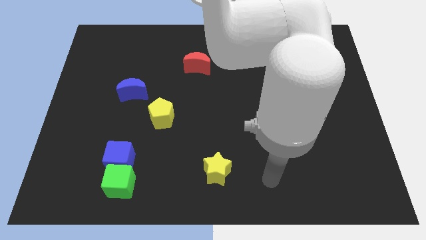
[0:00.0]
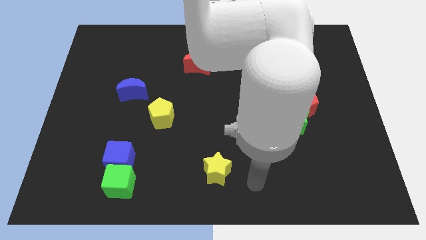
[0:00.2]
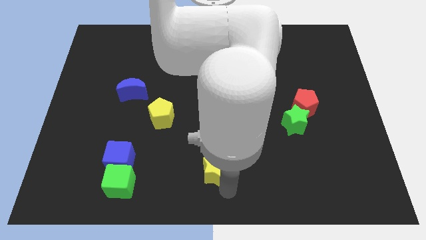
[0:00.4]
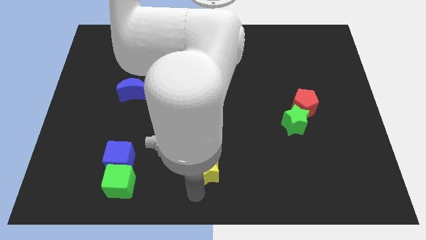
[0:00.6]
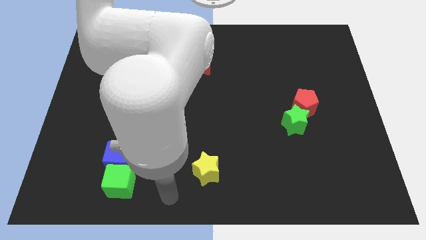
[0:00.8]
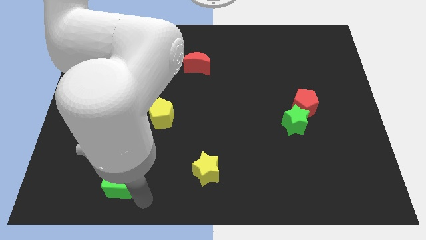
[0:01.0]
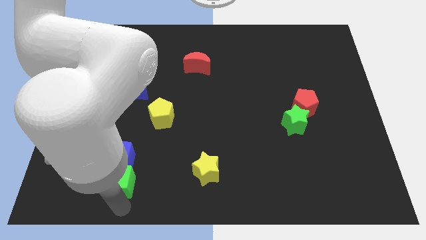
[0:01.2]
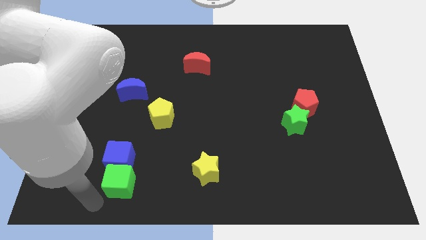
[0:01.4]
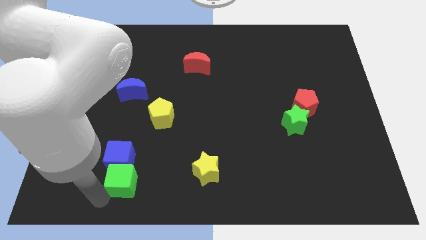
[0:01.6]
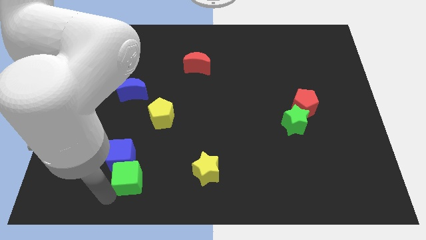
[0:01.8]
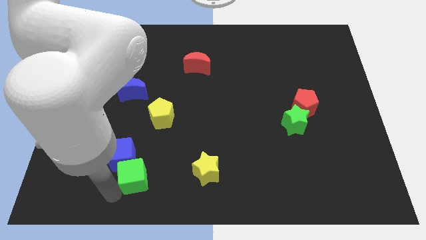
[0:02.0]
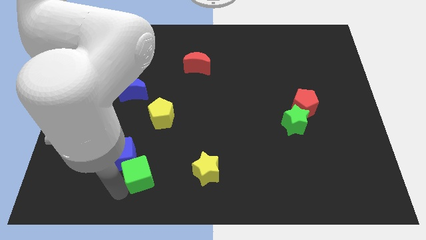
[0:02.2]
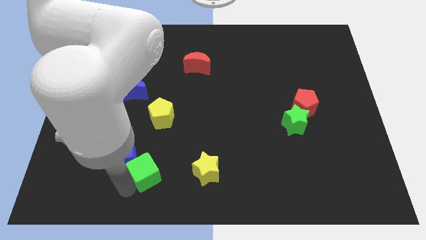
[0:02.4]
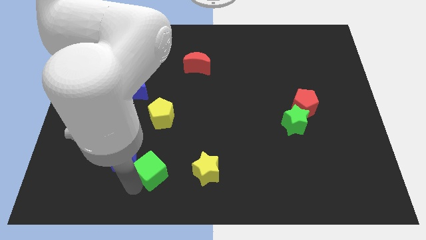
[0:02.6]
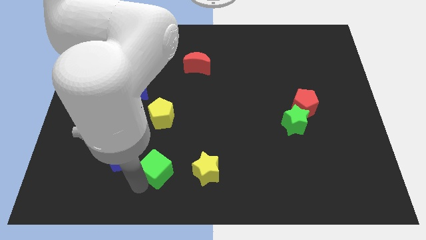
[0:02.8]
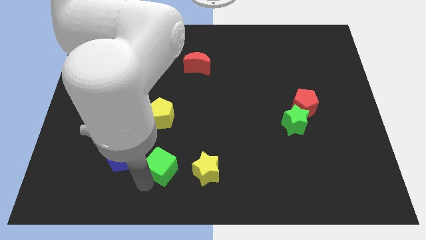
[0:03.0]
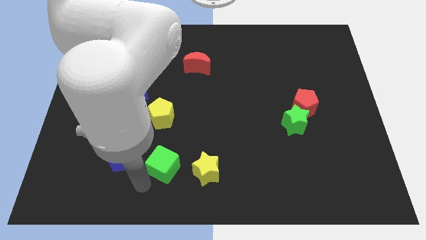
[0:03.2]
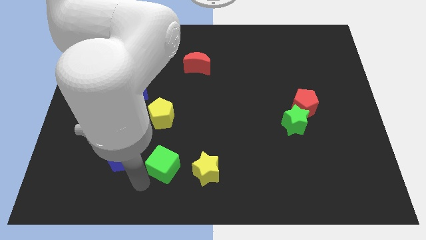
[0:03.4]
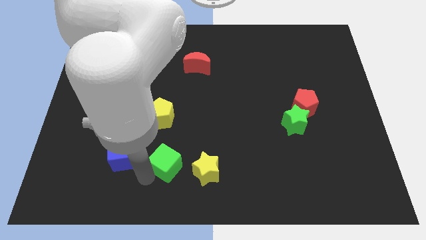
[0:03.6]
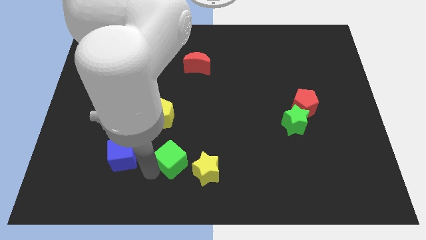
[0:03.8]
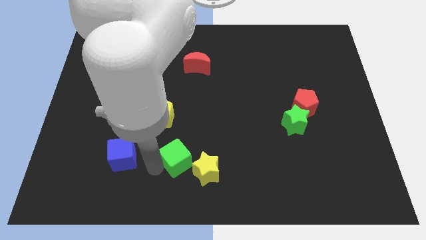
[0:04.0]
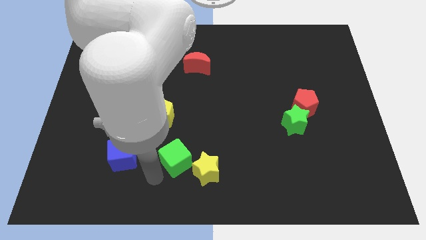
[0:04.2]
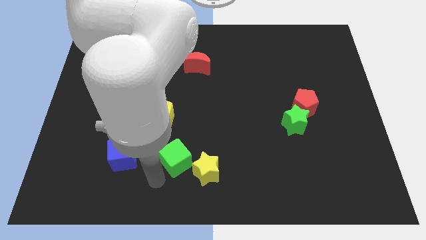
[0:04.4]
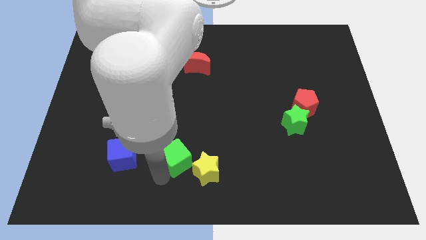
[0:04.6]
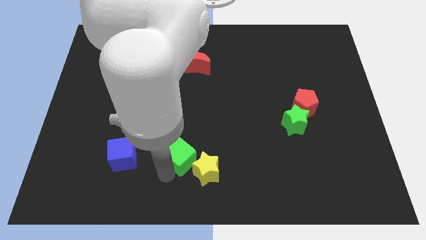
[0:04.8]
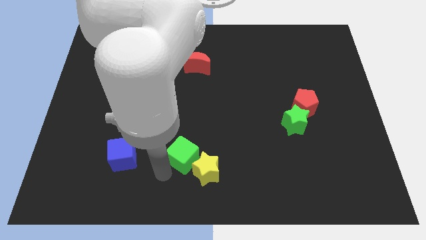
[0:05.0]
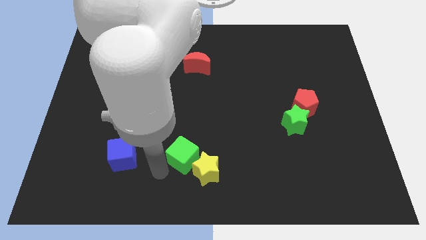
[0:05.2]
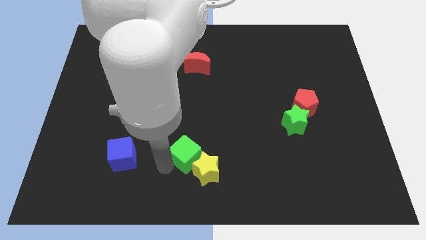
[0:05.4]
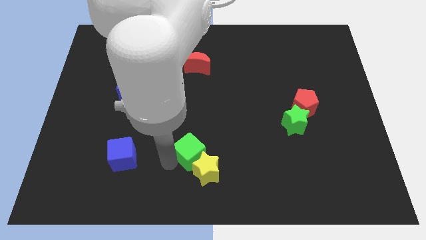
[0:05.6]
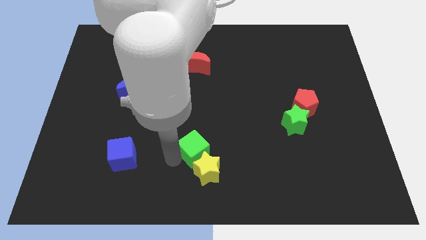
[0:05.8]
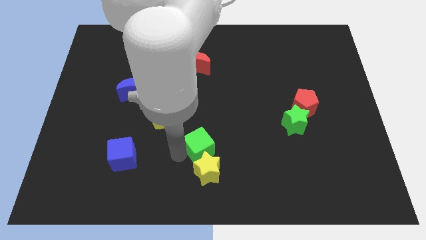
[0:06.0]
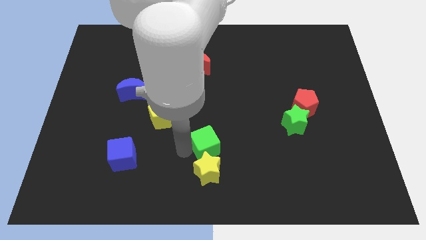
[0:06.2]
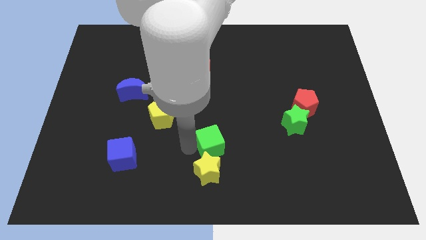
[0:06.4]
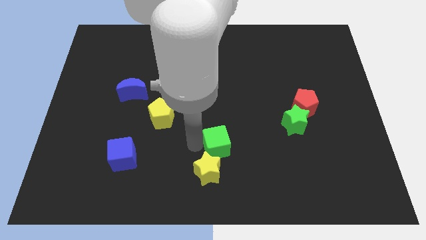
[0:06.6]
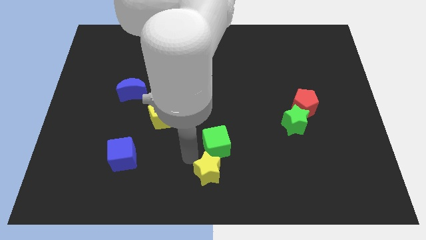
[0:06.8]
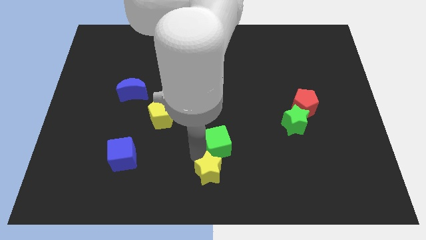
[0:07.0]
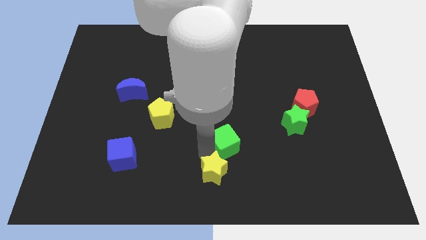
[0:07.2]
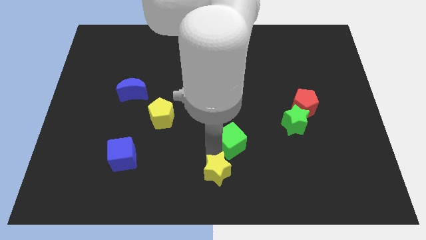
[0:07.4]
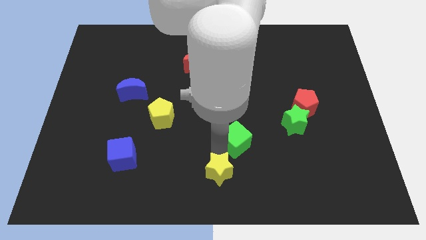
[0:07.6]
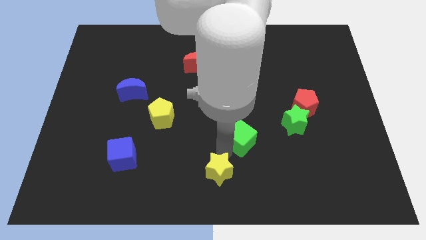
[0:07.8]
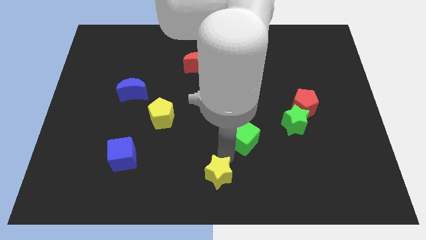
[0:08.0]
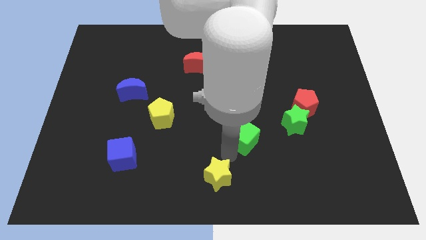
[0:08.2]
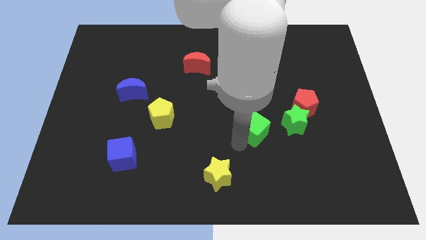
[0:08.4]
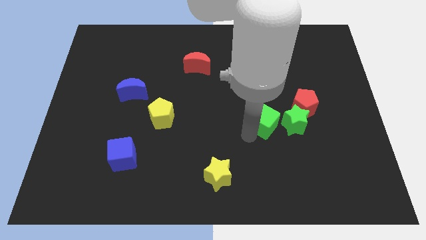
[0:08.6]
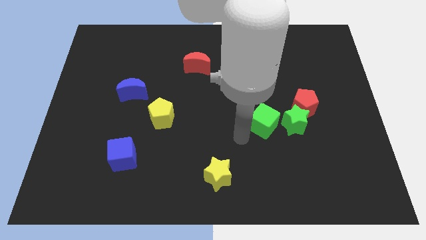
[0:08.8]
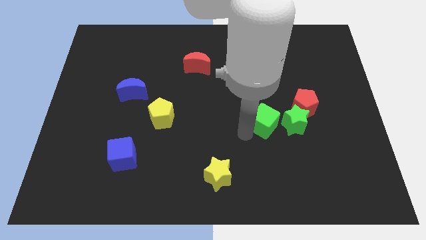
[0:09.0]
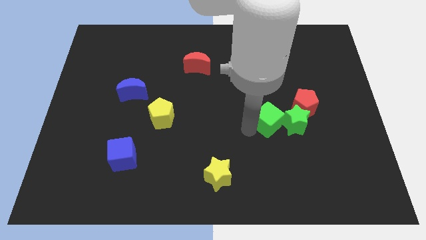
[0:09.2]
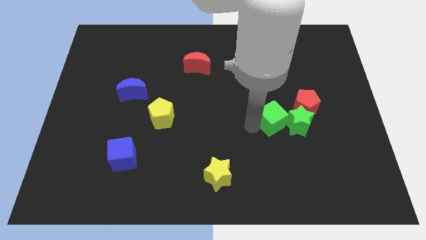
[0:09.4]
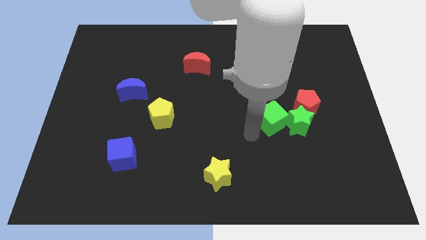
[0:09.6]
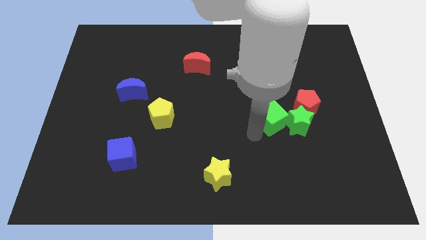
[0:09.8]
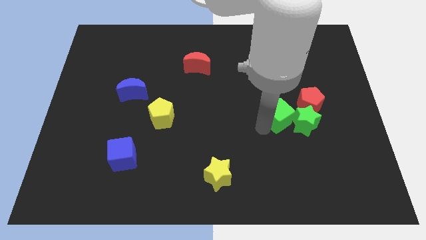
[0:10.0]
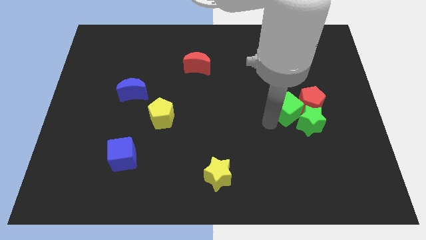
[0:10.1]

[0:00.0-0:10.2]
push the green cube close to the red pentagon

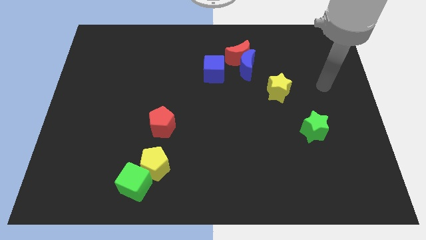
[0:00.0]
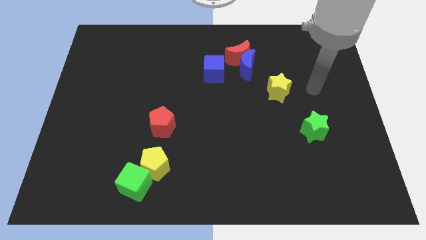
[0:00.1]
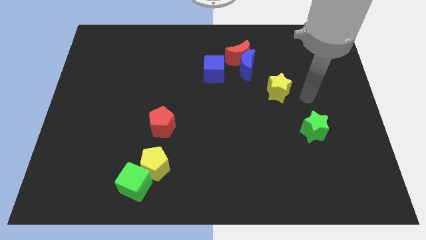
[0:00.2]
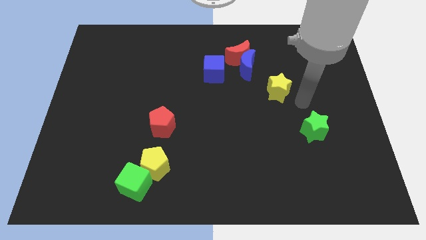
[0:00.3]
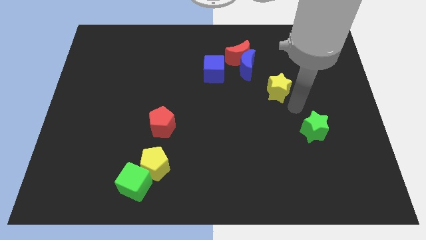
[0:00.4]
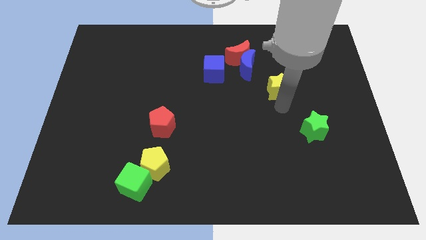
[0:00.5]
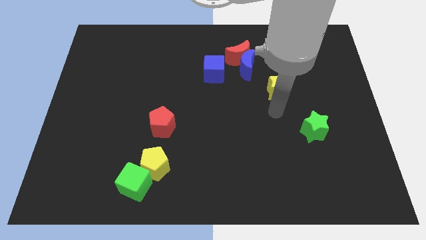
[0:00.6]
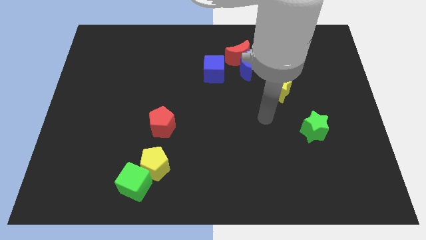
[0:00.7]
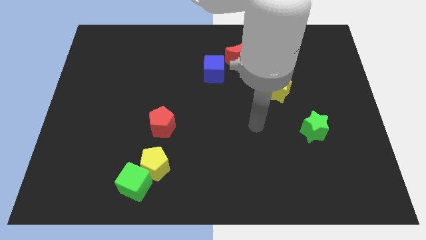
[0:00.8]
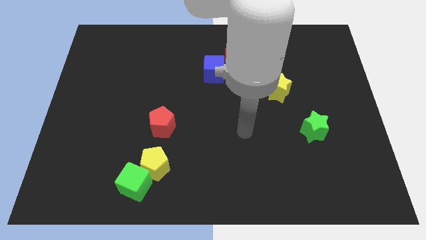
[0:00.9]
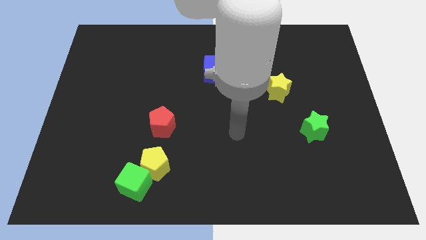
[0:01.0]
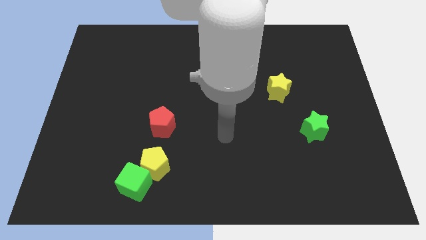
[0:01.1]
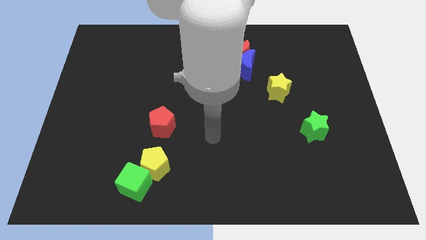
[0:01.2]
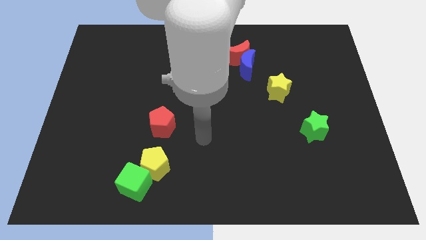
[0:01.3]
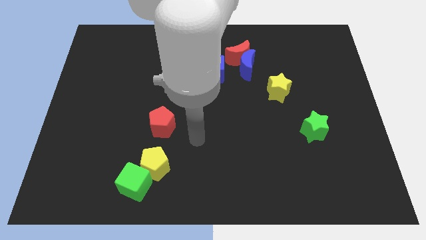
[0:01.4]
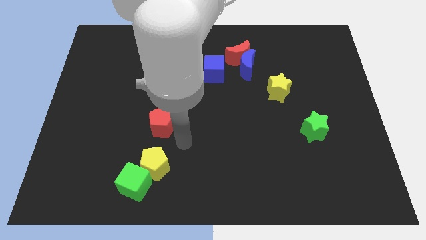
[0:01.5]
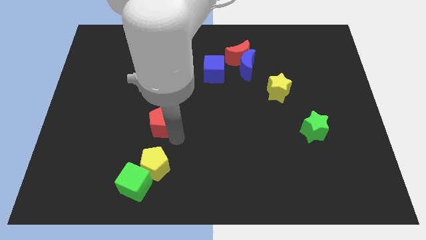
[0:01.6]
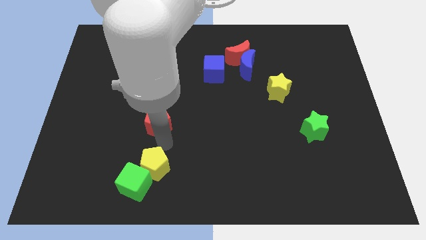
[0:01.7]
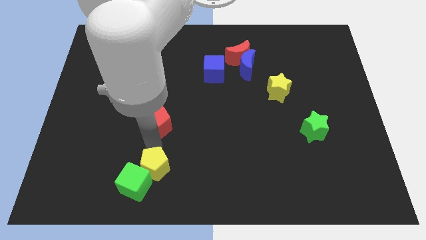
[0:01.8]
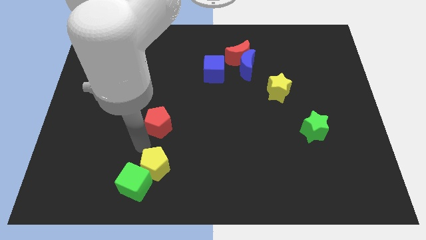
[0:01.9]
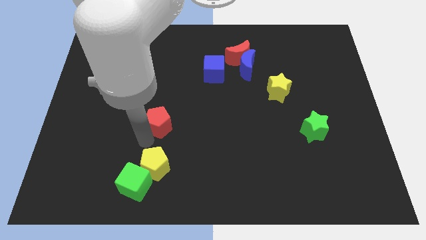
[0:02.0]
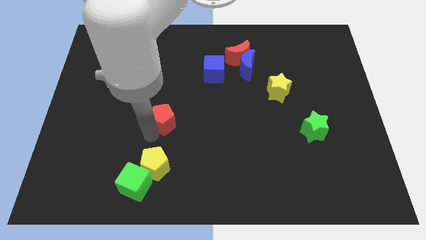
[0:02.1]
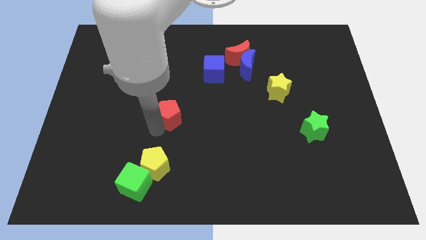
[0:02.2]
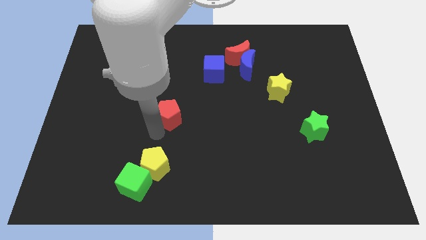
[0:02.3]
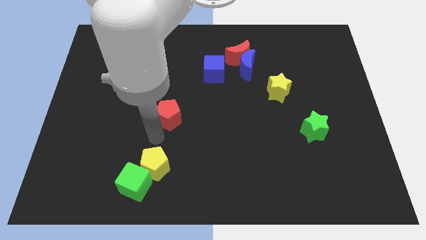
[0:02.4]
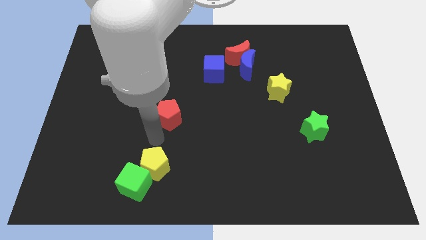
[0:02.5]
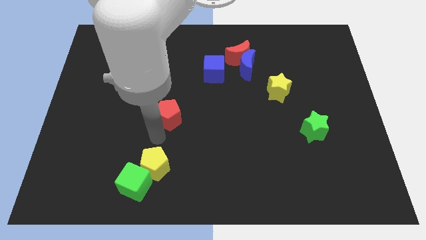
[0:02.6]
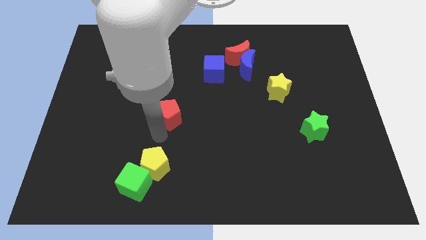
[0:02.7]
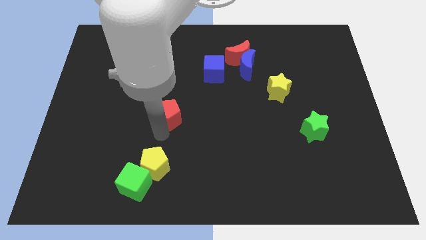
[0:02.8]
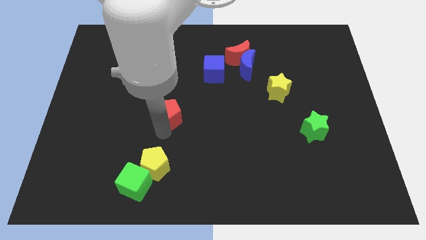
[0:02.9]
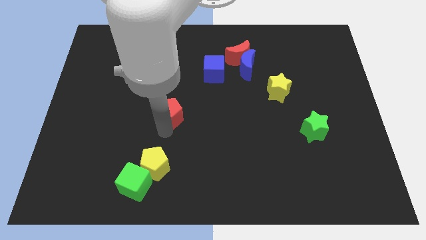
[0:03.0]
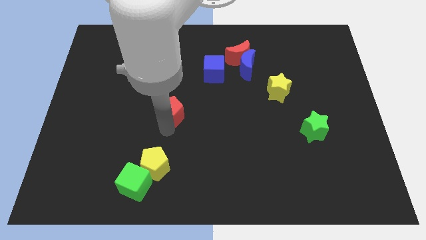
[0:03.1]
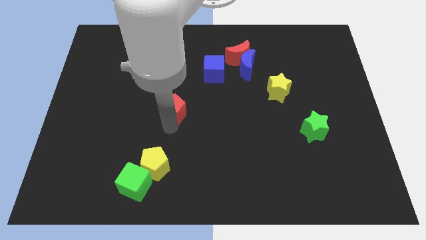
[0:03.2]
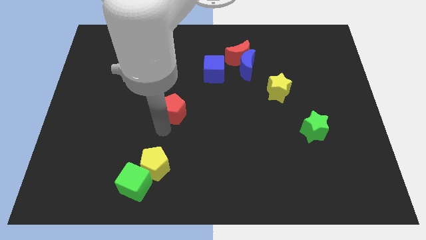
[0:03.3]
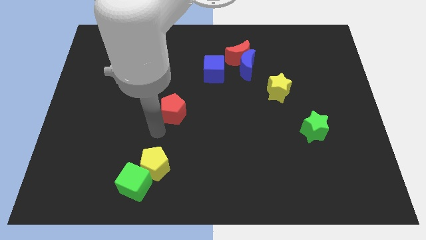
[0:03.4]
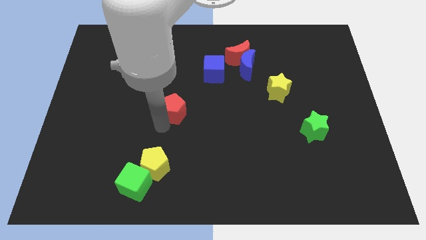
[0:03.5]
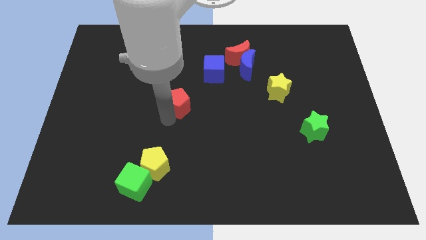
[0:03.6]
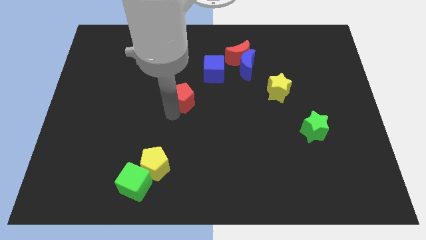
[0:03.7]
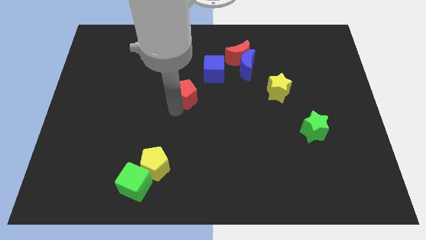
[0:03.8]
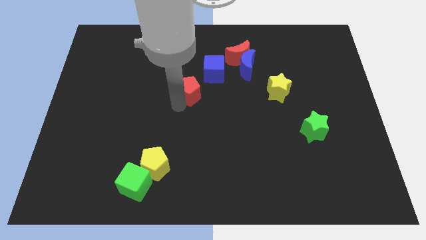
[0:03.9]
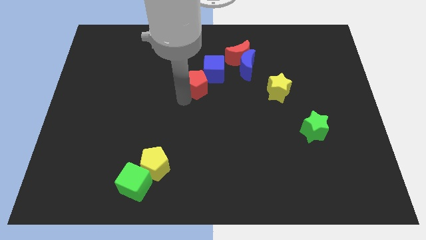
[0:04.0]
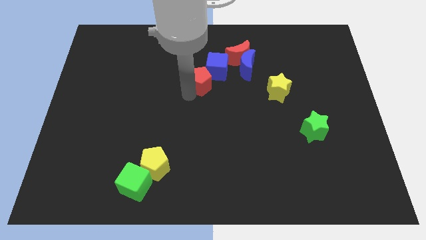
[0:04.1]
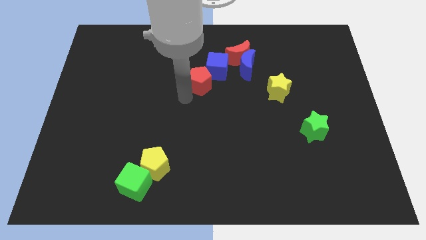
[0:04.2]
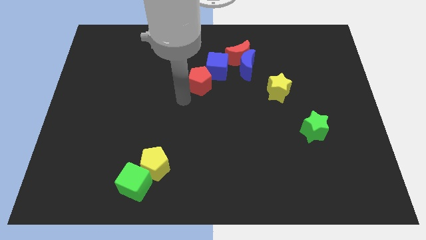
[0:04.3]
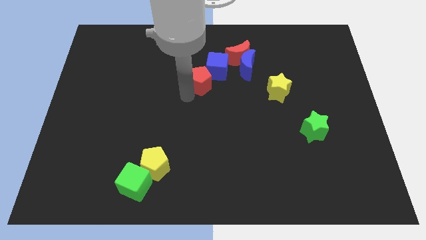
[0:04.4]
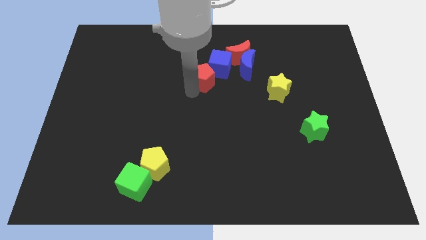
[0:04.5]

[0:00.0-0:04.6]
push the red pentagon next to the blue cube
